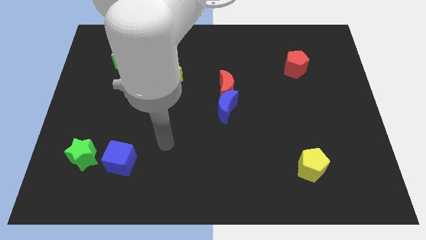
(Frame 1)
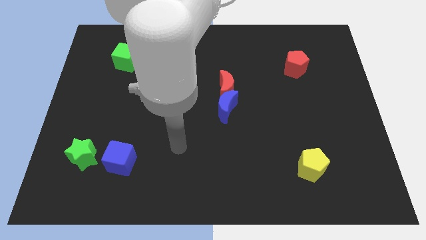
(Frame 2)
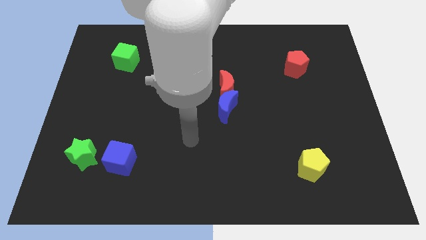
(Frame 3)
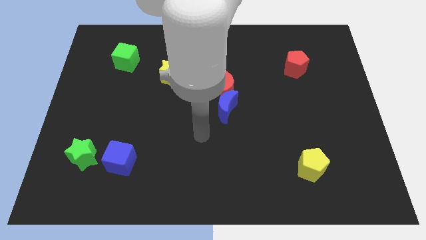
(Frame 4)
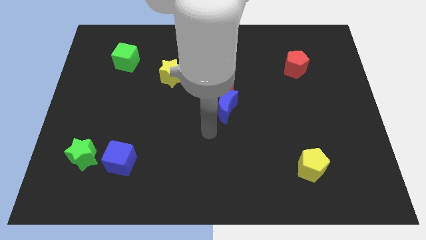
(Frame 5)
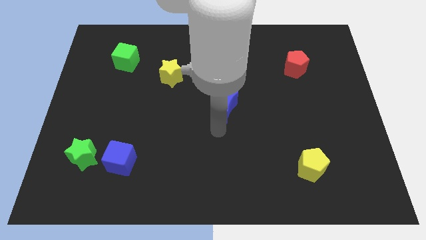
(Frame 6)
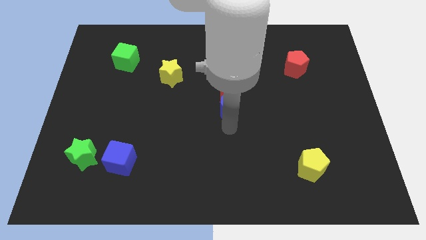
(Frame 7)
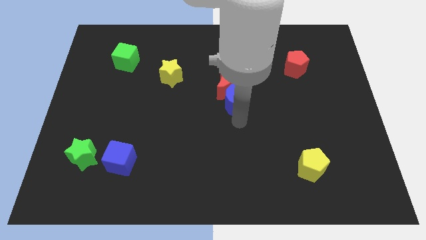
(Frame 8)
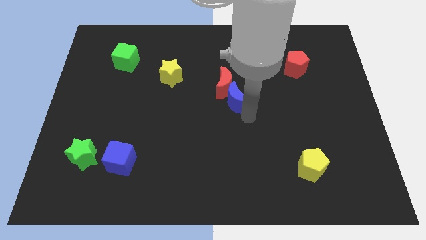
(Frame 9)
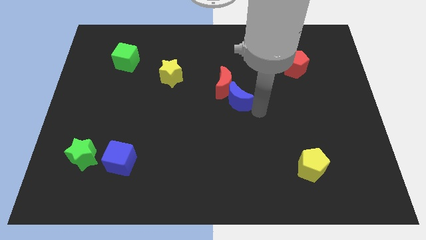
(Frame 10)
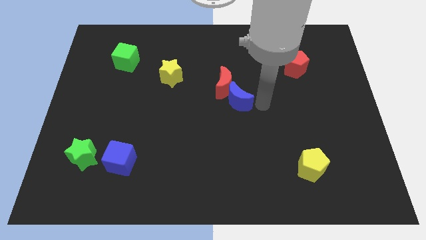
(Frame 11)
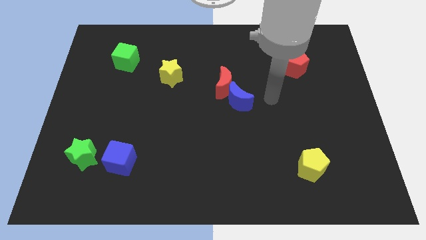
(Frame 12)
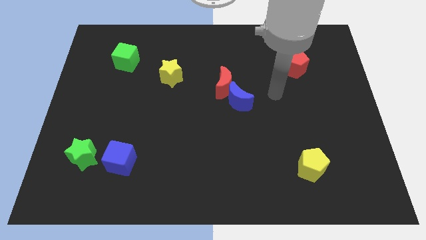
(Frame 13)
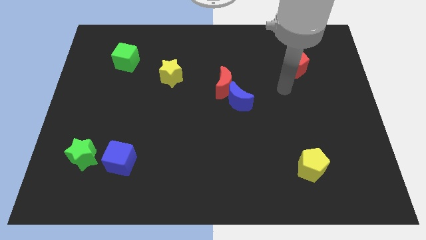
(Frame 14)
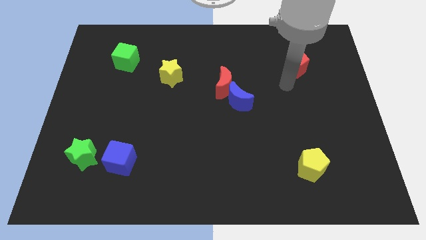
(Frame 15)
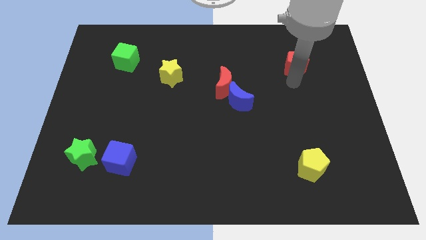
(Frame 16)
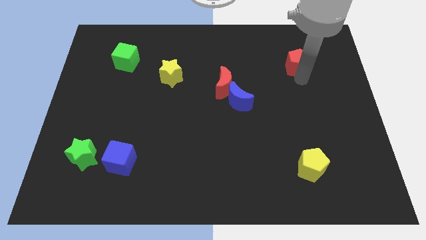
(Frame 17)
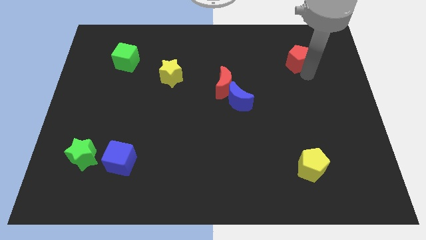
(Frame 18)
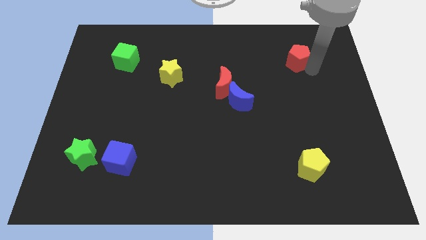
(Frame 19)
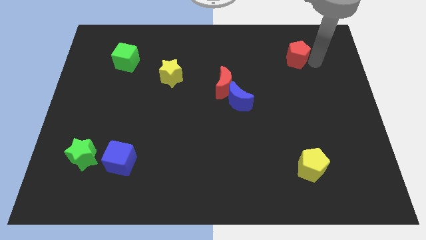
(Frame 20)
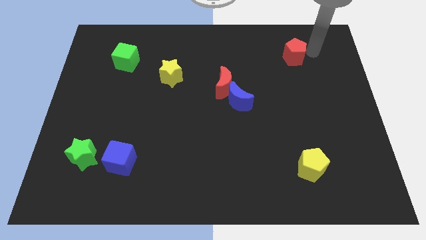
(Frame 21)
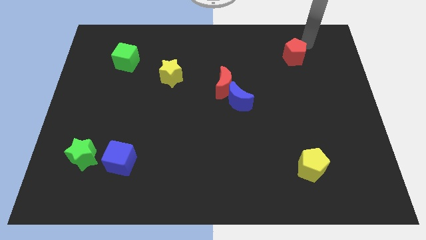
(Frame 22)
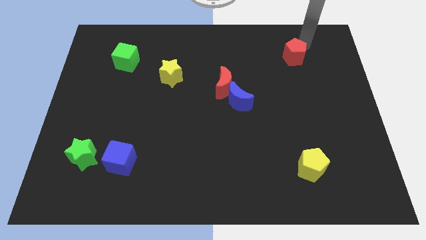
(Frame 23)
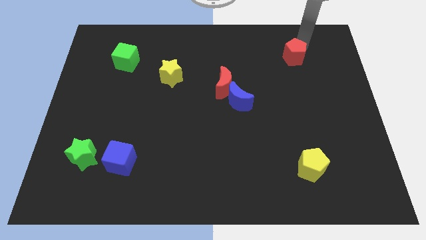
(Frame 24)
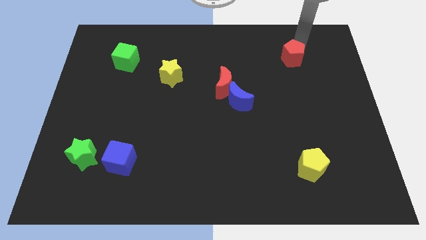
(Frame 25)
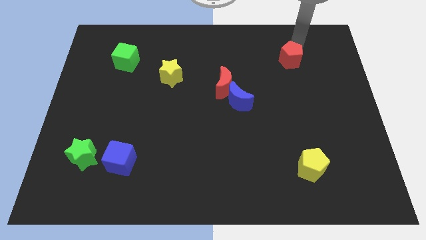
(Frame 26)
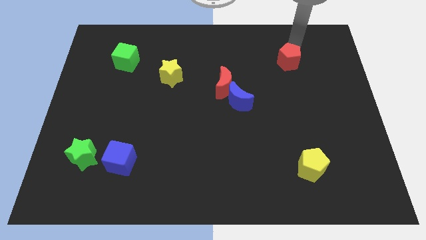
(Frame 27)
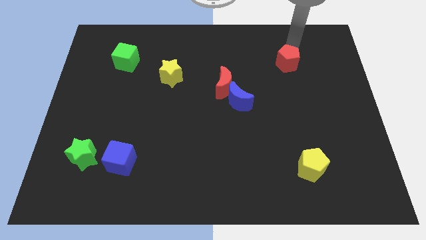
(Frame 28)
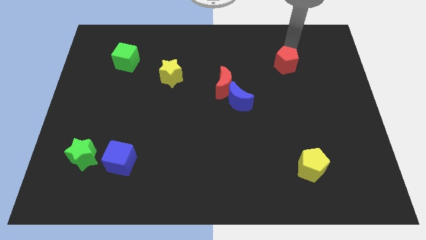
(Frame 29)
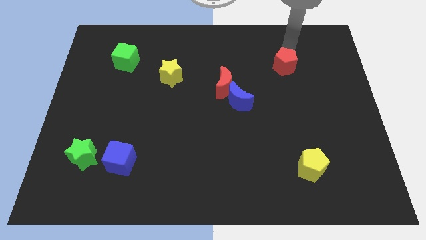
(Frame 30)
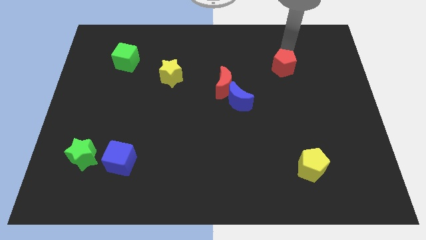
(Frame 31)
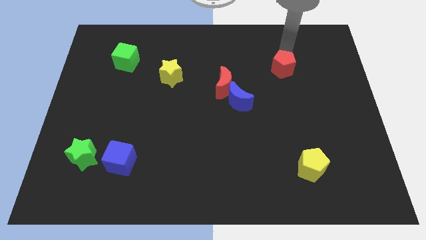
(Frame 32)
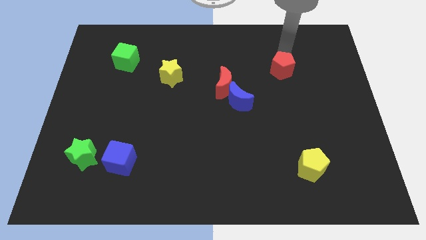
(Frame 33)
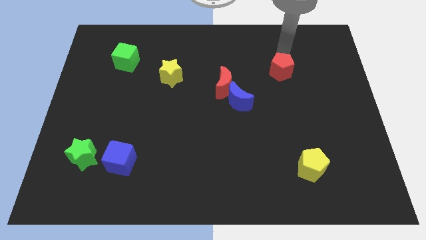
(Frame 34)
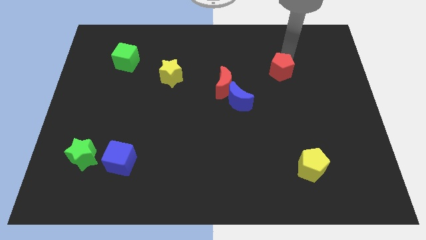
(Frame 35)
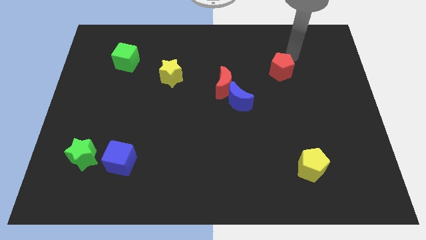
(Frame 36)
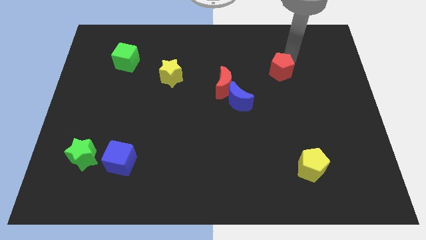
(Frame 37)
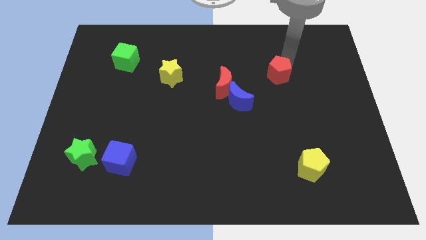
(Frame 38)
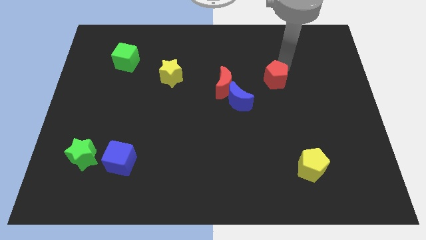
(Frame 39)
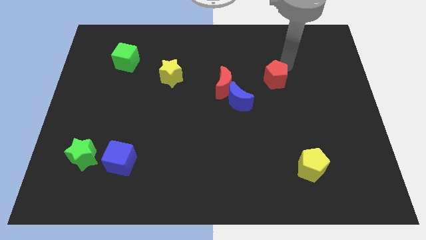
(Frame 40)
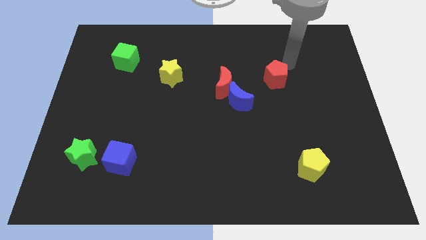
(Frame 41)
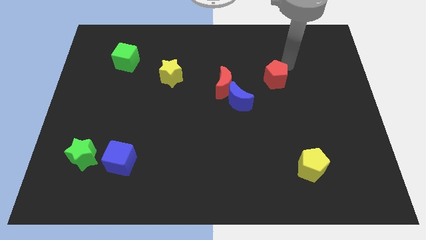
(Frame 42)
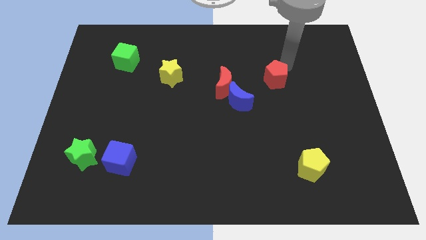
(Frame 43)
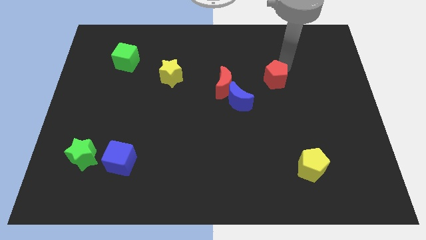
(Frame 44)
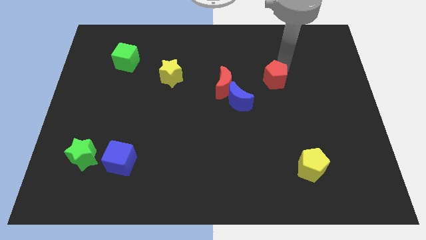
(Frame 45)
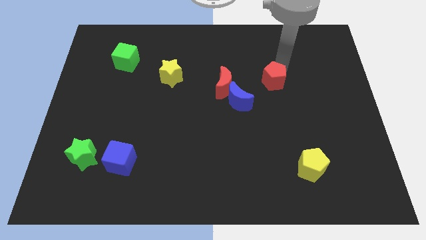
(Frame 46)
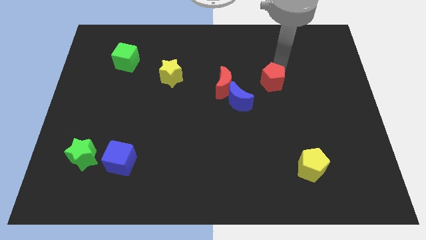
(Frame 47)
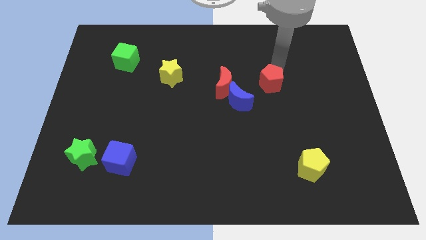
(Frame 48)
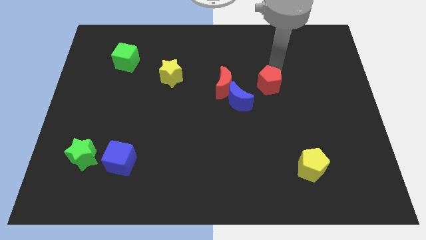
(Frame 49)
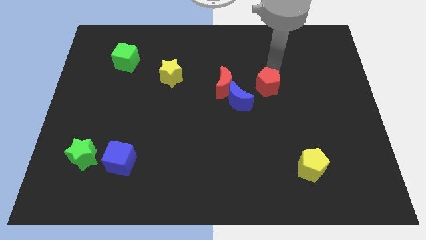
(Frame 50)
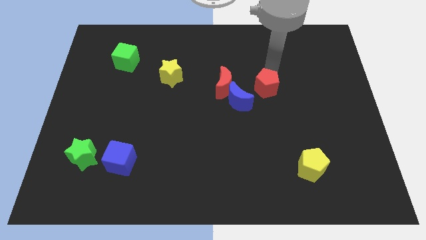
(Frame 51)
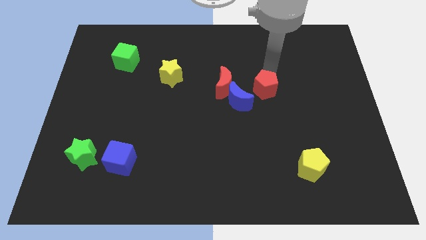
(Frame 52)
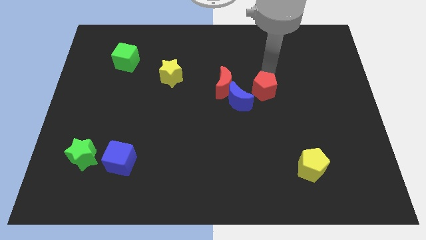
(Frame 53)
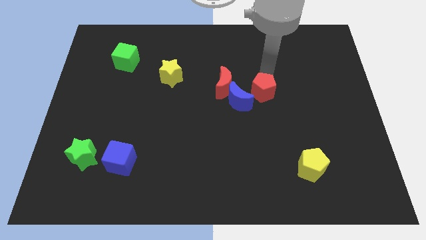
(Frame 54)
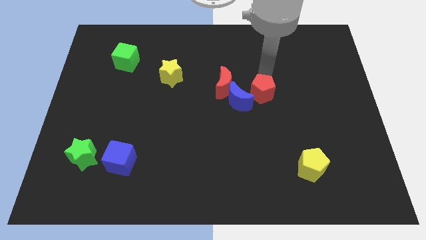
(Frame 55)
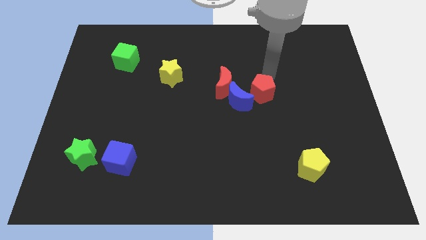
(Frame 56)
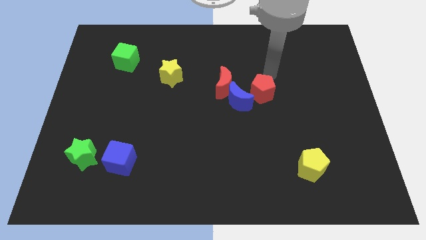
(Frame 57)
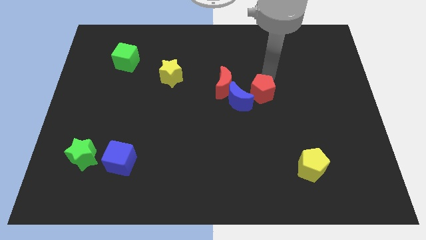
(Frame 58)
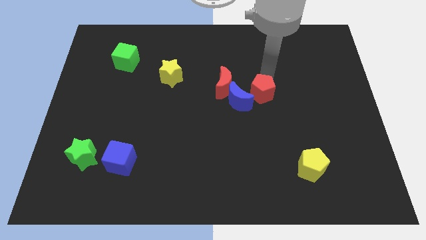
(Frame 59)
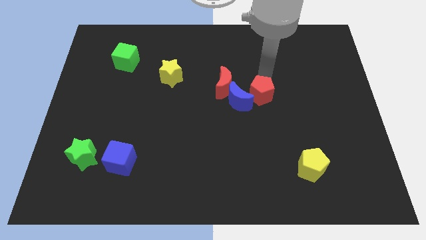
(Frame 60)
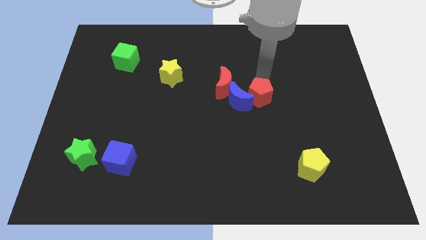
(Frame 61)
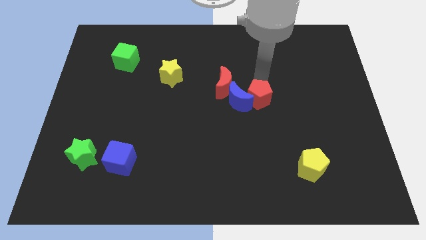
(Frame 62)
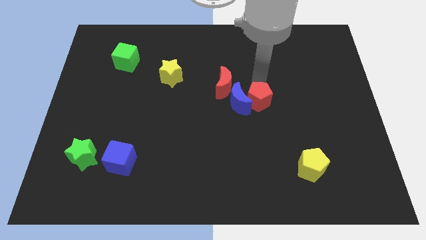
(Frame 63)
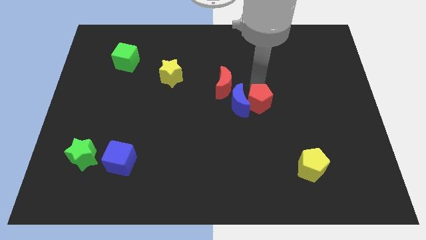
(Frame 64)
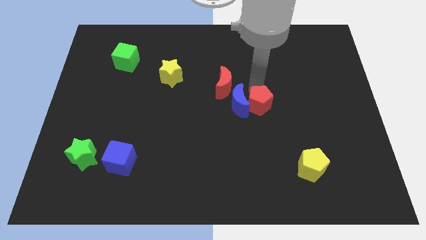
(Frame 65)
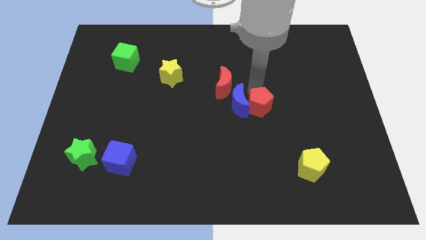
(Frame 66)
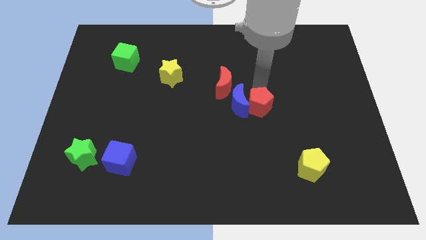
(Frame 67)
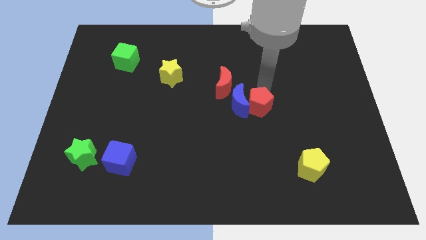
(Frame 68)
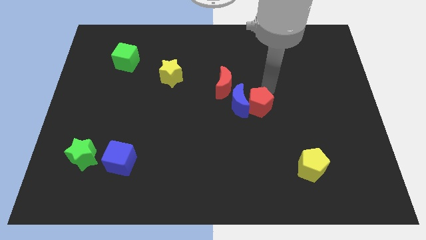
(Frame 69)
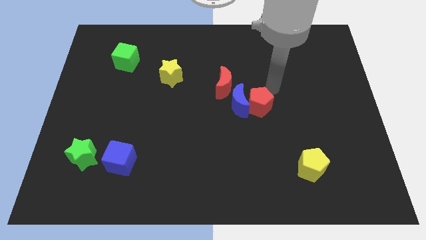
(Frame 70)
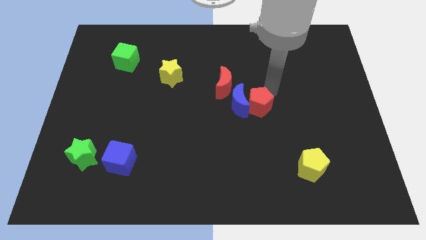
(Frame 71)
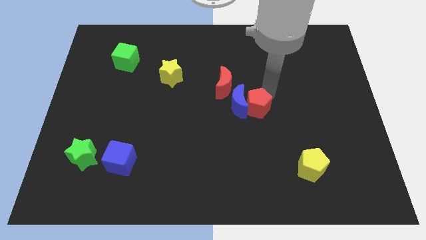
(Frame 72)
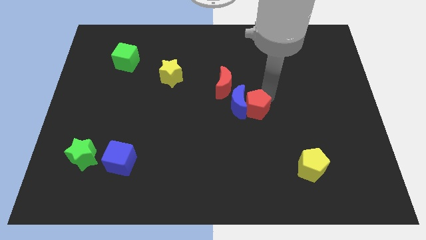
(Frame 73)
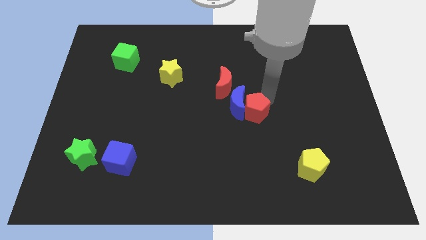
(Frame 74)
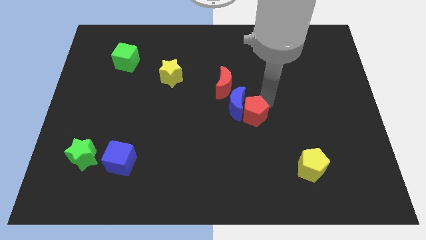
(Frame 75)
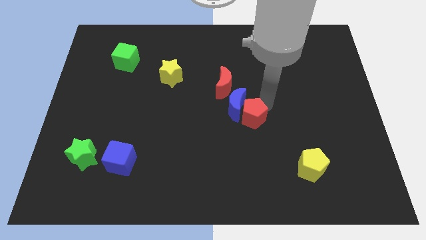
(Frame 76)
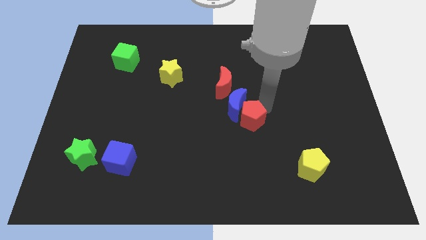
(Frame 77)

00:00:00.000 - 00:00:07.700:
slide the red pentagon downwards and left diagonally

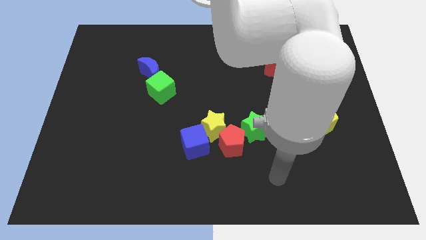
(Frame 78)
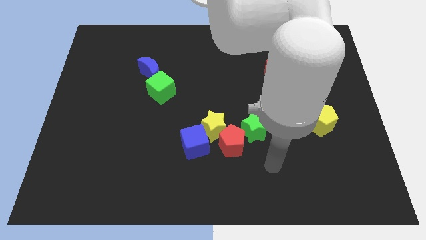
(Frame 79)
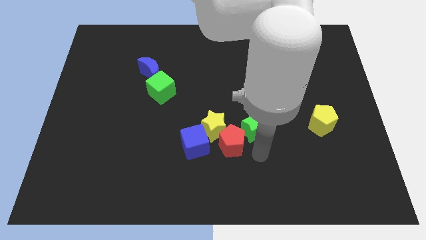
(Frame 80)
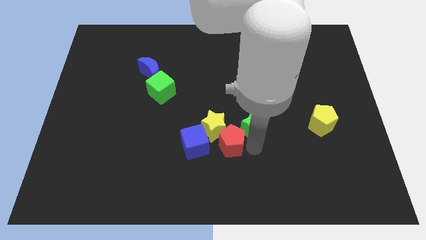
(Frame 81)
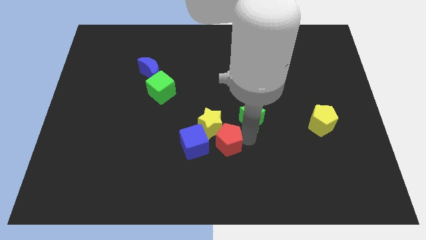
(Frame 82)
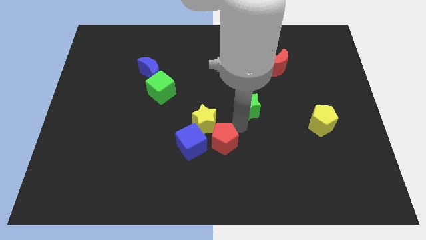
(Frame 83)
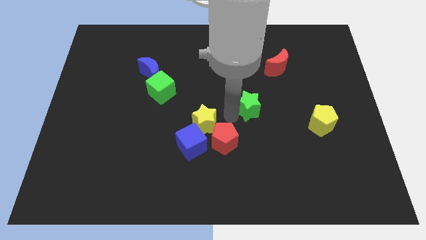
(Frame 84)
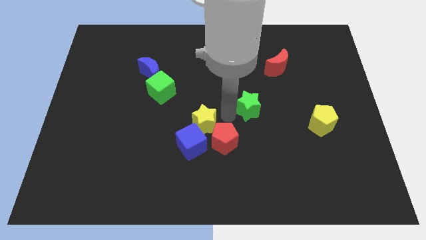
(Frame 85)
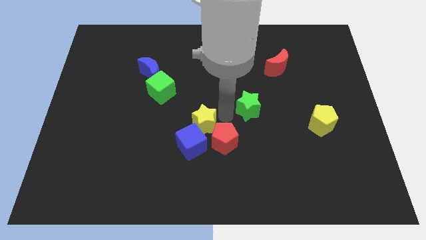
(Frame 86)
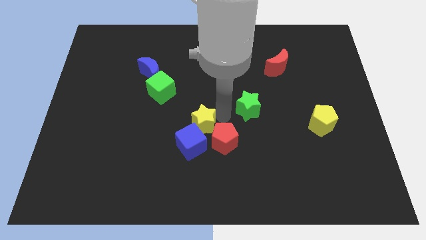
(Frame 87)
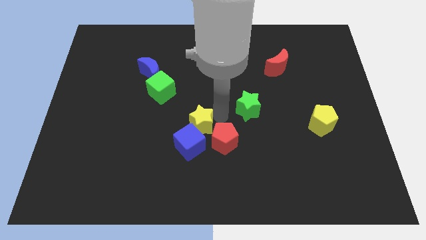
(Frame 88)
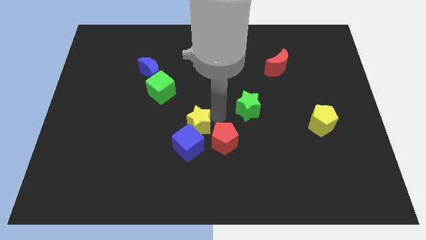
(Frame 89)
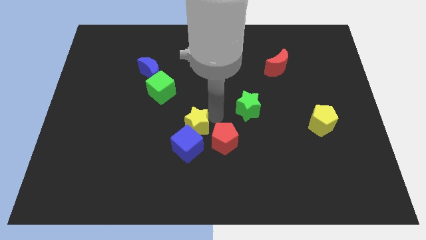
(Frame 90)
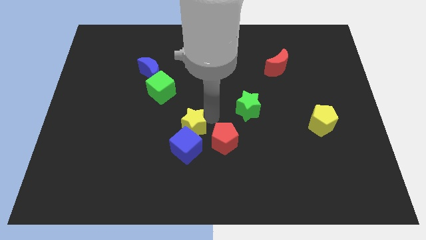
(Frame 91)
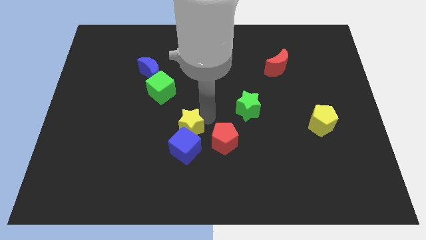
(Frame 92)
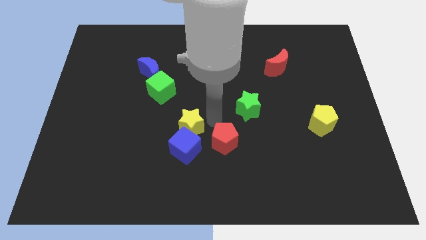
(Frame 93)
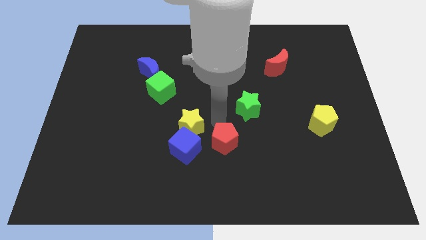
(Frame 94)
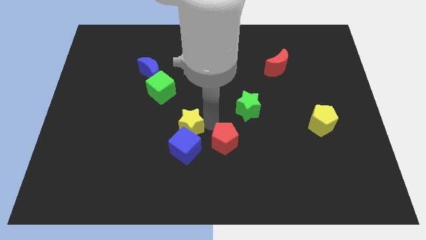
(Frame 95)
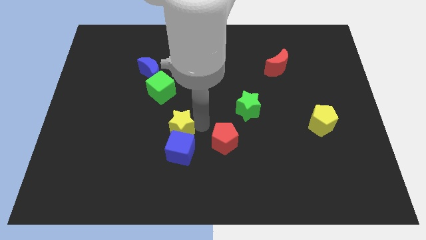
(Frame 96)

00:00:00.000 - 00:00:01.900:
push the yellow star left somewhat
